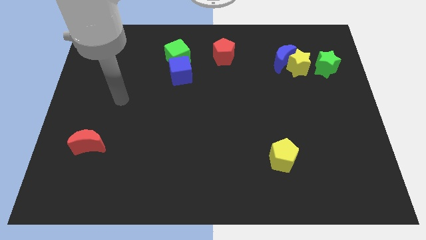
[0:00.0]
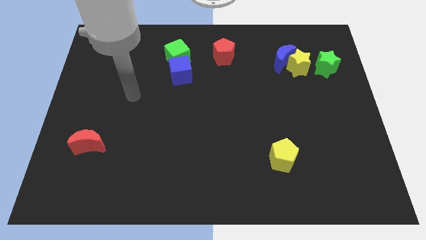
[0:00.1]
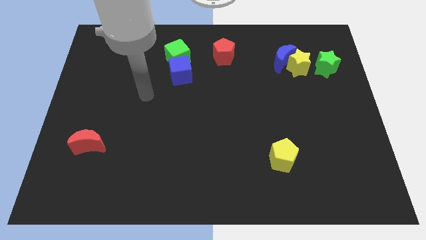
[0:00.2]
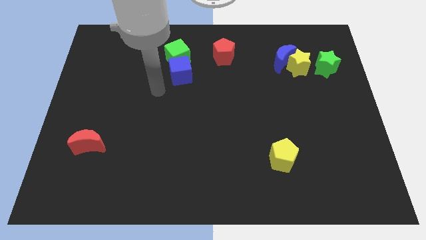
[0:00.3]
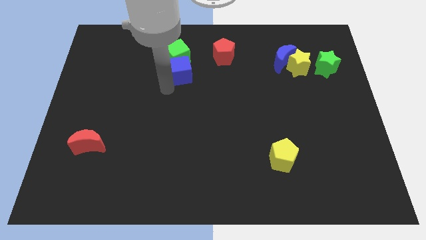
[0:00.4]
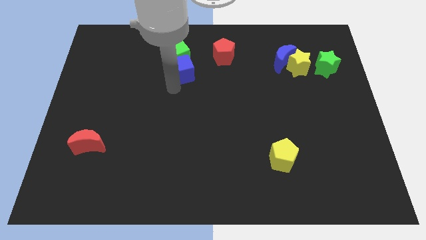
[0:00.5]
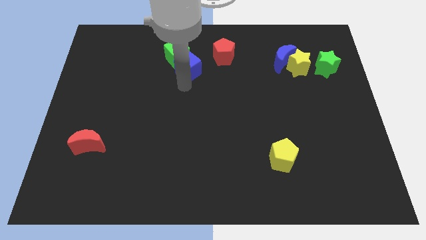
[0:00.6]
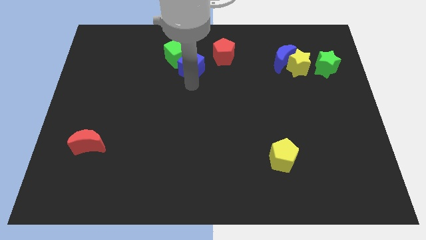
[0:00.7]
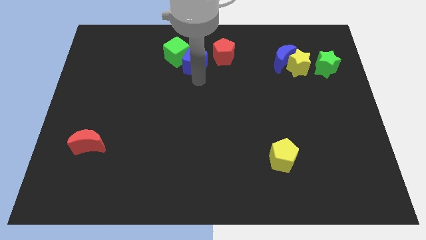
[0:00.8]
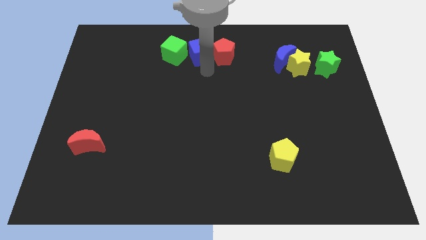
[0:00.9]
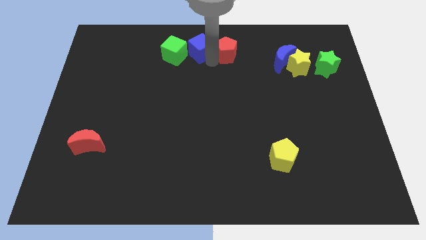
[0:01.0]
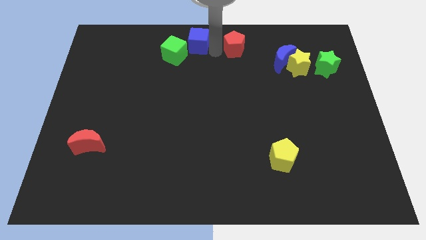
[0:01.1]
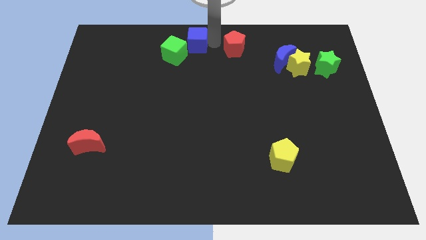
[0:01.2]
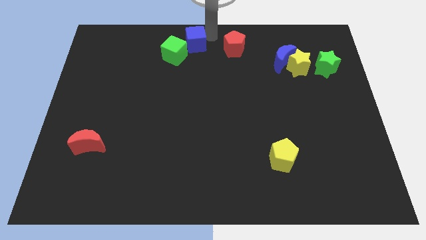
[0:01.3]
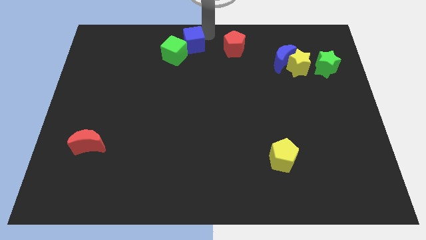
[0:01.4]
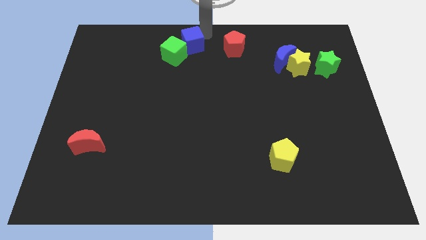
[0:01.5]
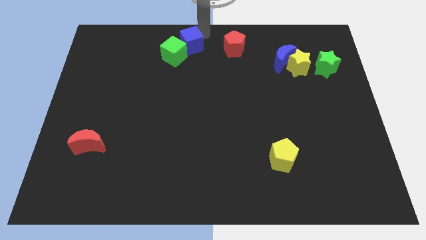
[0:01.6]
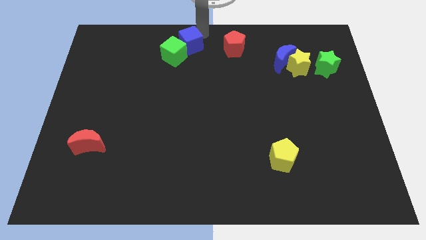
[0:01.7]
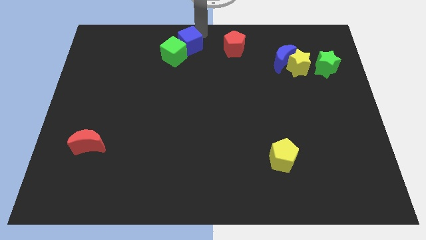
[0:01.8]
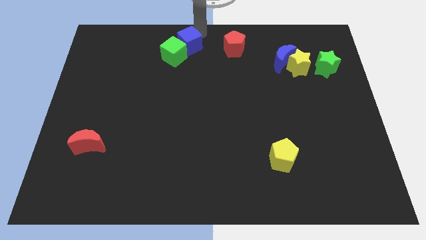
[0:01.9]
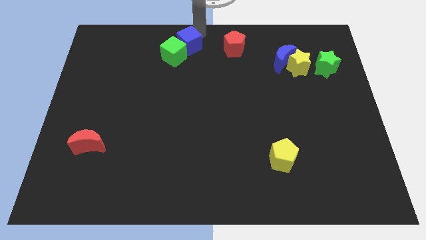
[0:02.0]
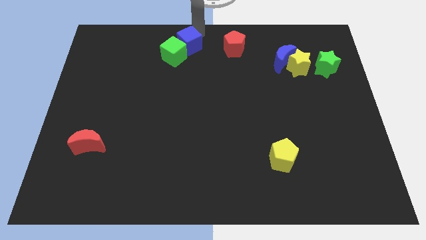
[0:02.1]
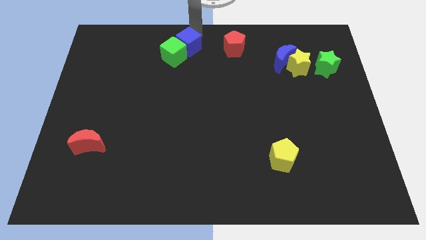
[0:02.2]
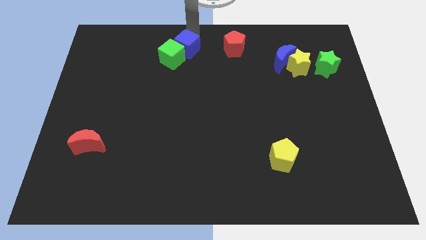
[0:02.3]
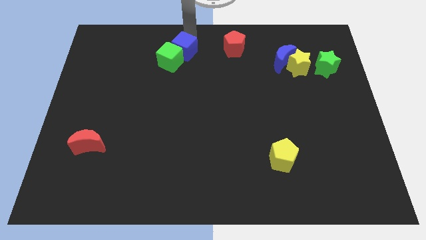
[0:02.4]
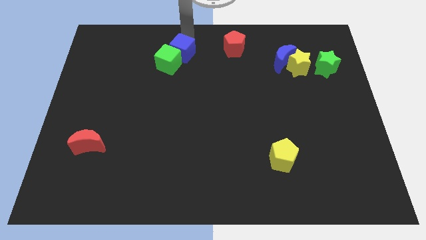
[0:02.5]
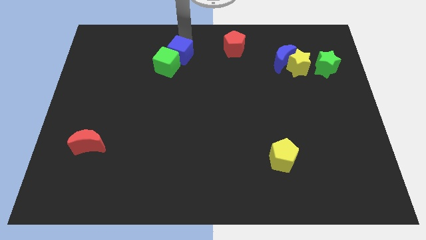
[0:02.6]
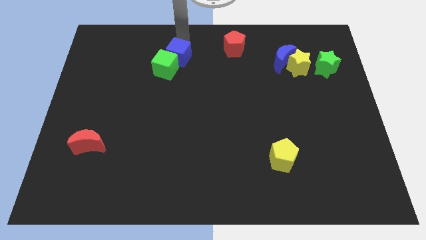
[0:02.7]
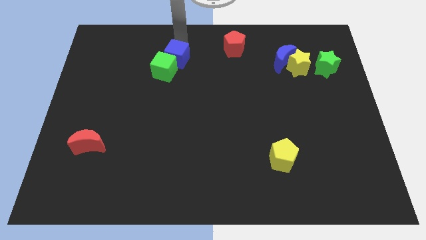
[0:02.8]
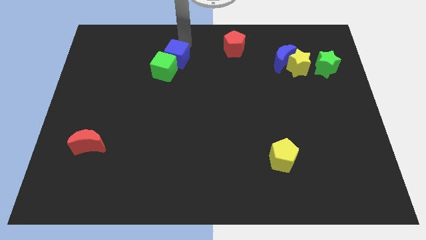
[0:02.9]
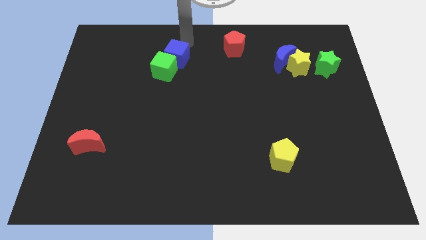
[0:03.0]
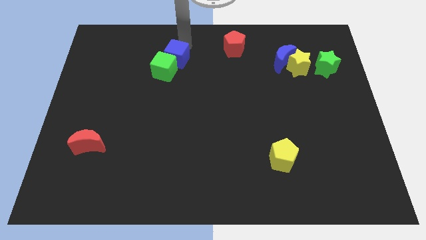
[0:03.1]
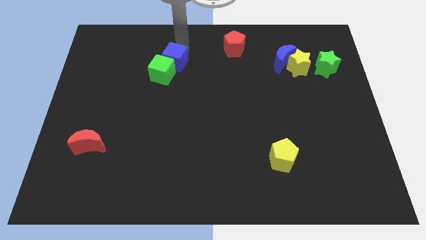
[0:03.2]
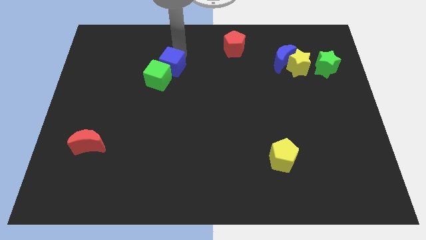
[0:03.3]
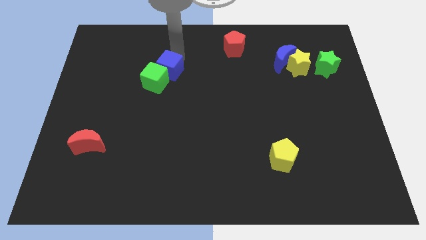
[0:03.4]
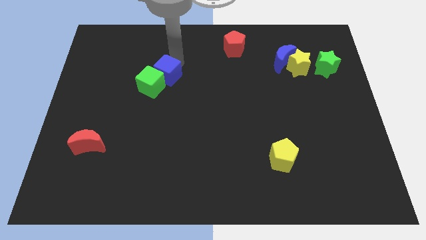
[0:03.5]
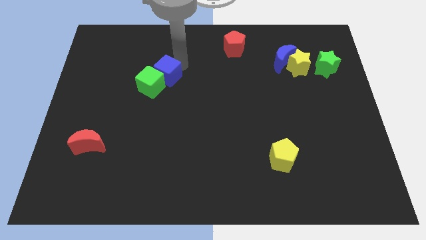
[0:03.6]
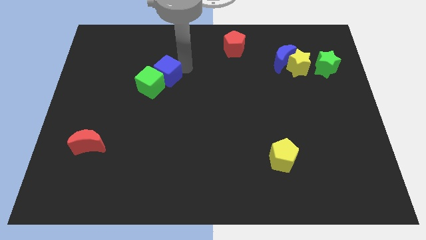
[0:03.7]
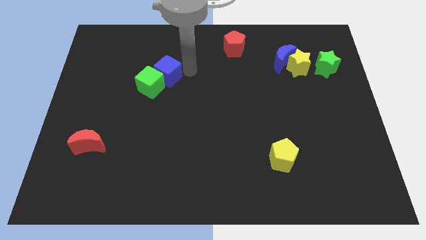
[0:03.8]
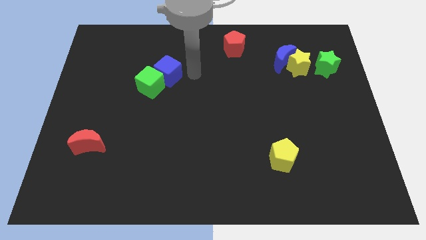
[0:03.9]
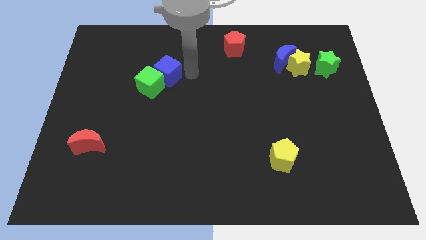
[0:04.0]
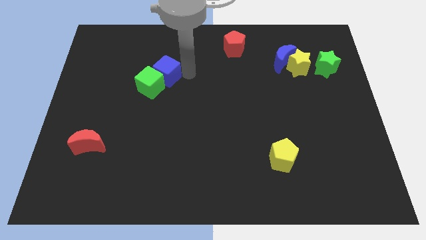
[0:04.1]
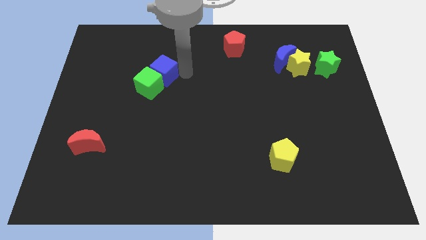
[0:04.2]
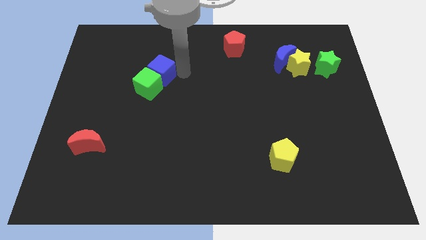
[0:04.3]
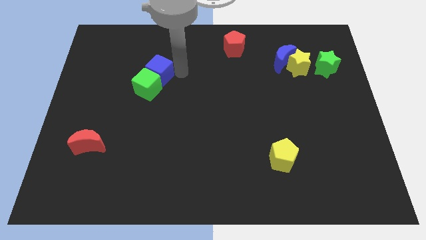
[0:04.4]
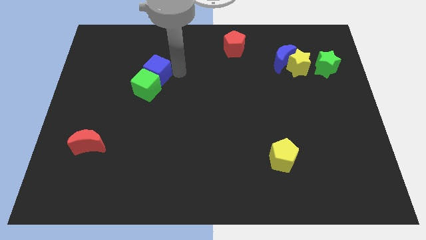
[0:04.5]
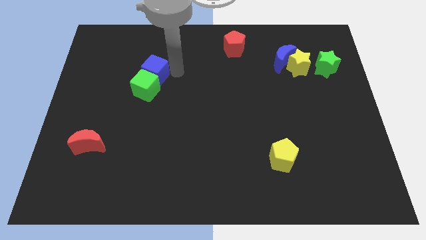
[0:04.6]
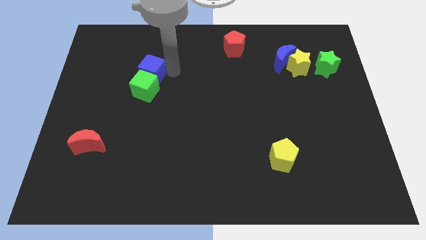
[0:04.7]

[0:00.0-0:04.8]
slide the blue cube to the left a bit

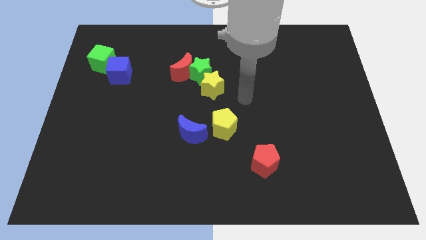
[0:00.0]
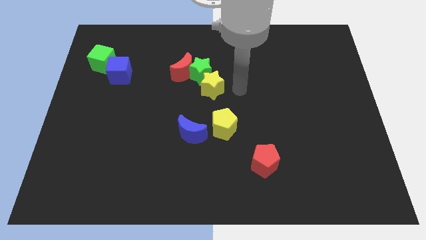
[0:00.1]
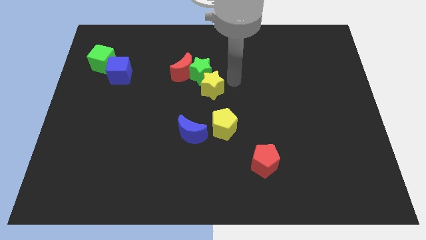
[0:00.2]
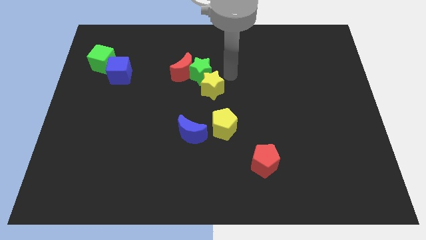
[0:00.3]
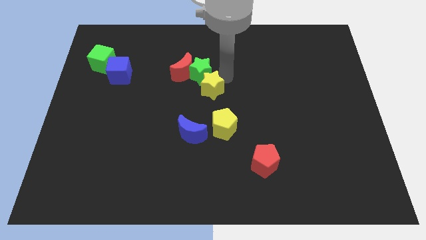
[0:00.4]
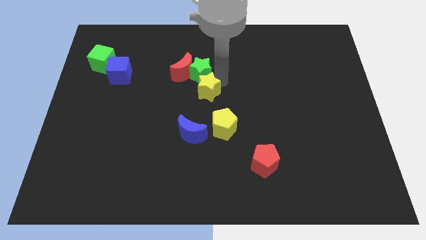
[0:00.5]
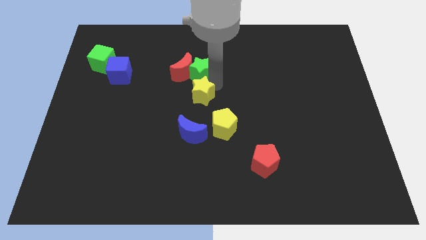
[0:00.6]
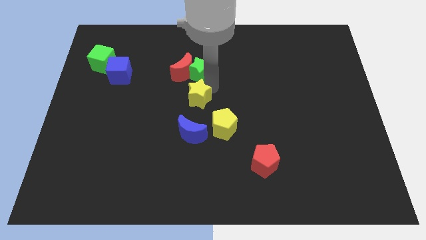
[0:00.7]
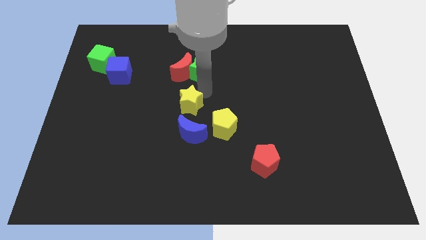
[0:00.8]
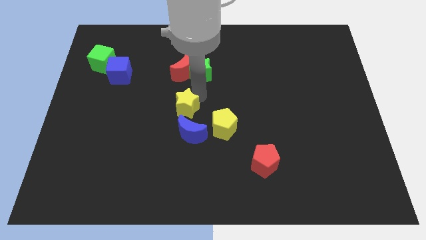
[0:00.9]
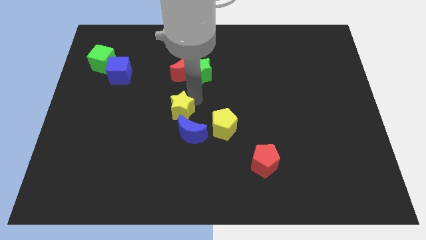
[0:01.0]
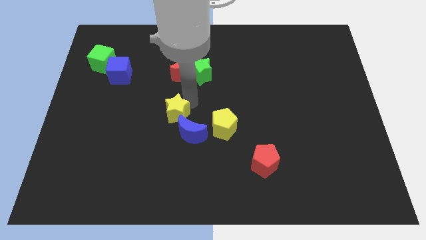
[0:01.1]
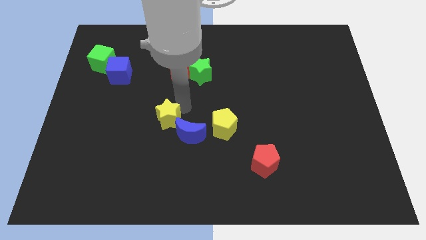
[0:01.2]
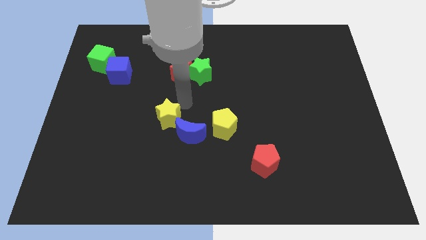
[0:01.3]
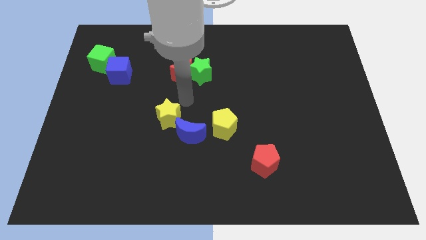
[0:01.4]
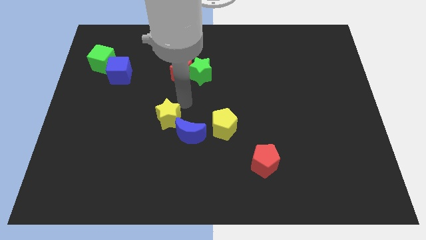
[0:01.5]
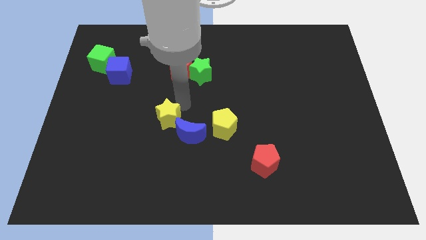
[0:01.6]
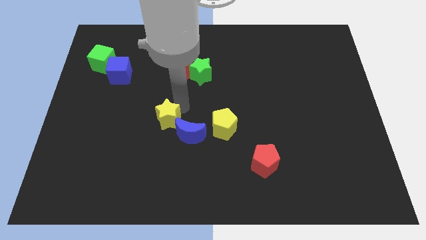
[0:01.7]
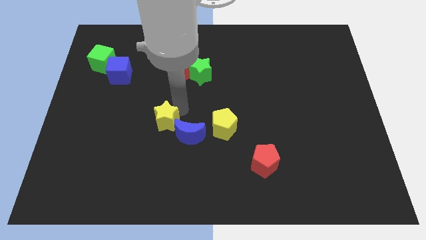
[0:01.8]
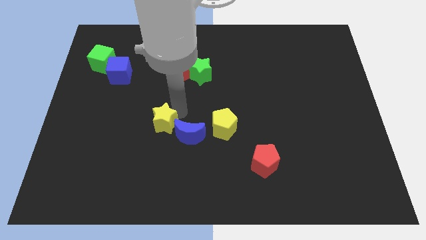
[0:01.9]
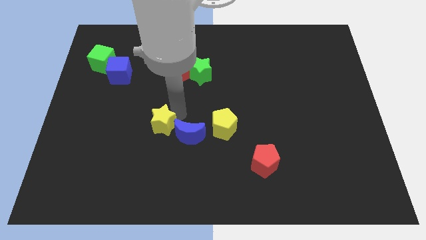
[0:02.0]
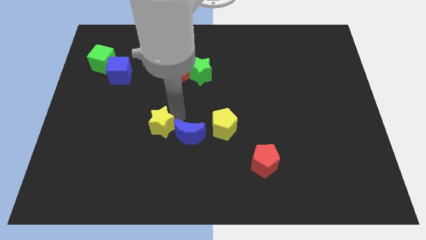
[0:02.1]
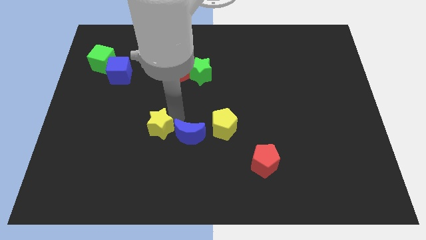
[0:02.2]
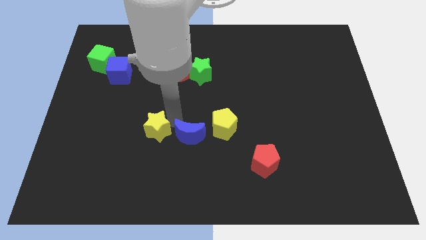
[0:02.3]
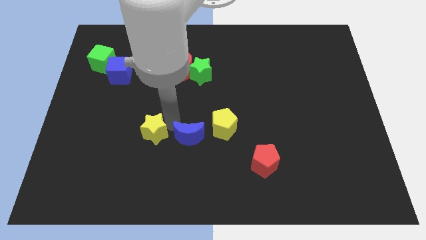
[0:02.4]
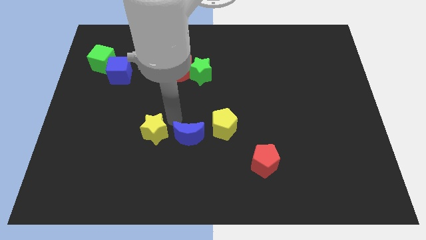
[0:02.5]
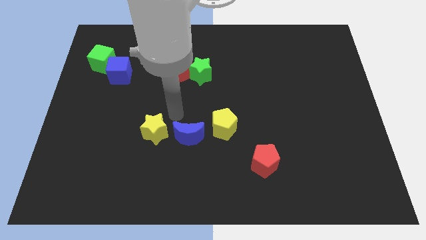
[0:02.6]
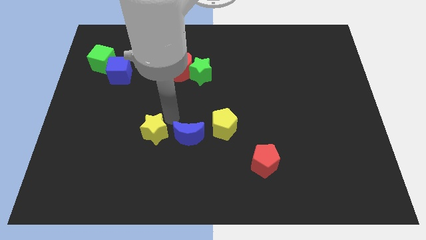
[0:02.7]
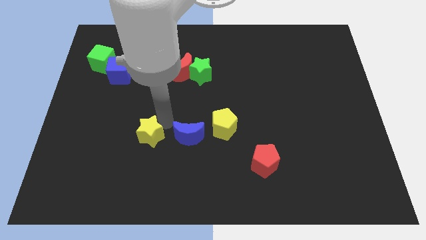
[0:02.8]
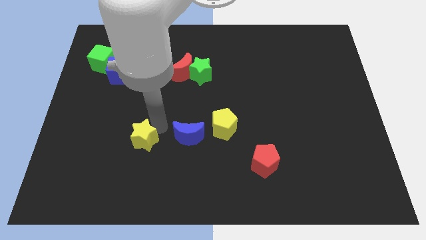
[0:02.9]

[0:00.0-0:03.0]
push the yellow star downwards and left diagonally

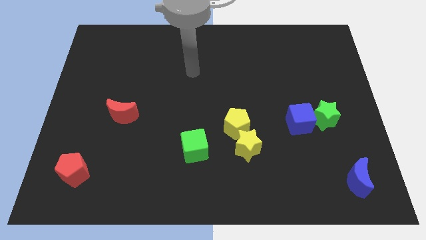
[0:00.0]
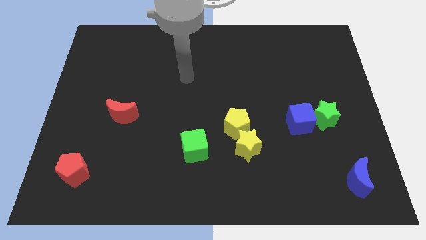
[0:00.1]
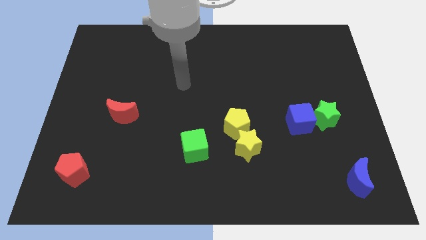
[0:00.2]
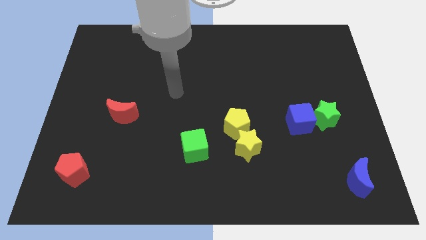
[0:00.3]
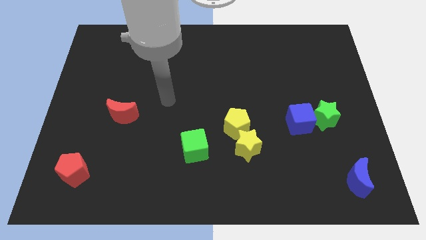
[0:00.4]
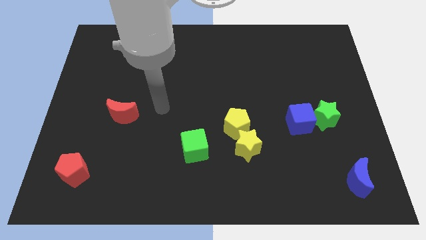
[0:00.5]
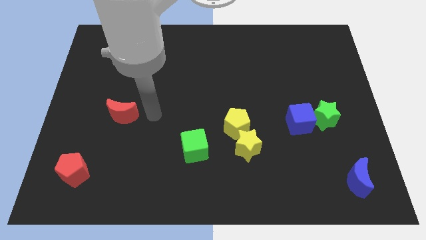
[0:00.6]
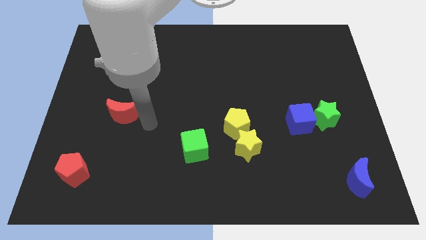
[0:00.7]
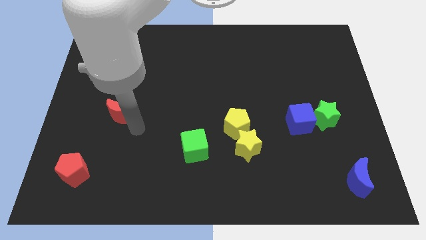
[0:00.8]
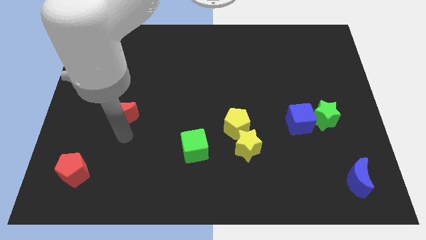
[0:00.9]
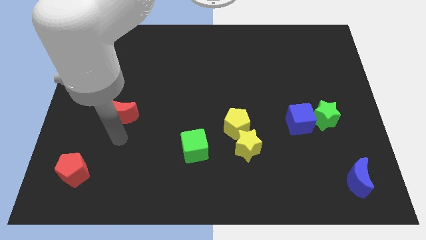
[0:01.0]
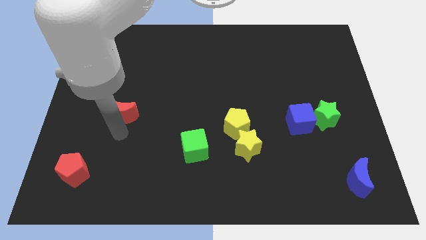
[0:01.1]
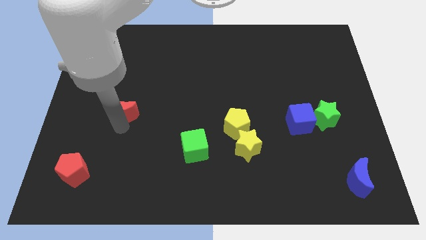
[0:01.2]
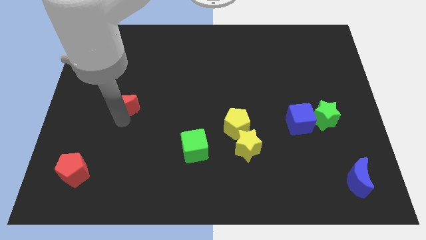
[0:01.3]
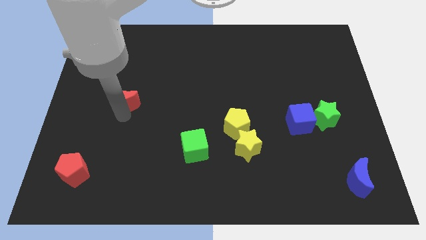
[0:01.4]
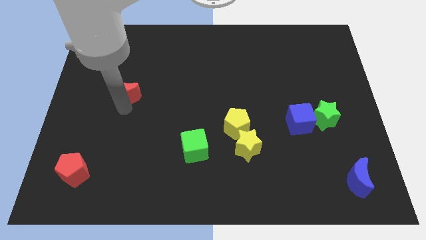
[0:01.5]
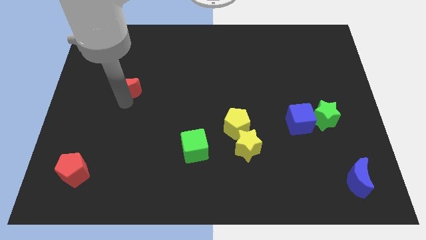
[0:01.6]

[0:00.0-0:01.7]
slightly push the red moon upwards
